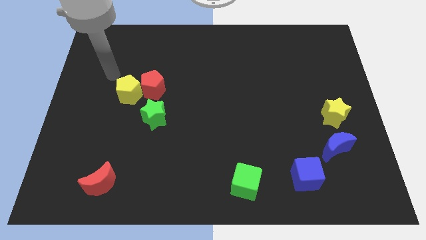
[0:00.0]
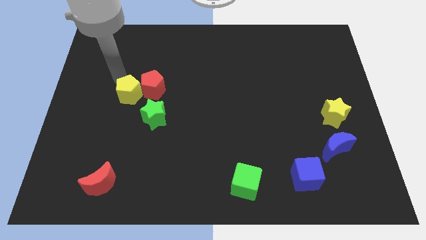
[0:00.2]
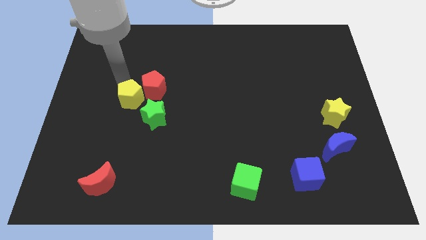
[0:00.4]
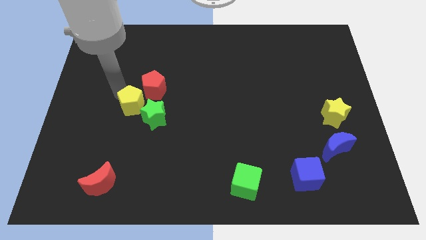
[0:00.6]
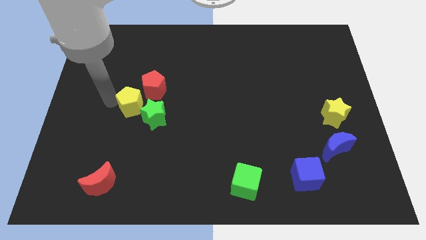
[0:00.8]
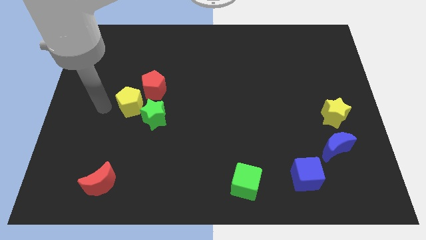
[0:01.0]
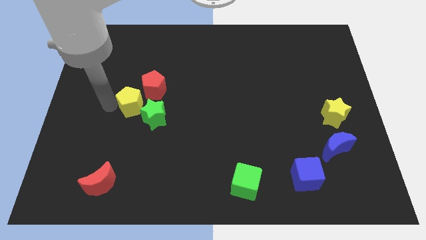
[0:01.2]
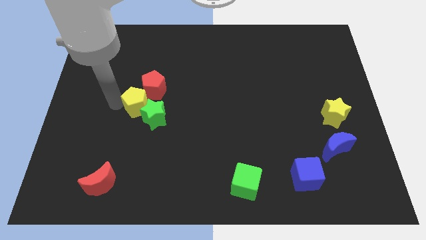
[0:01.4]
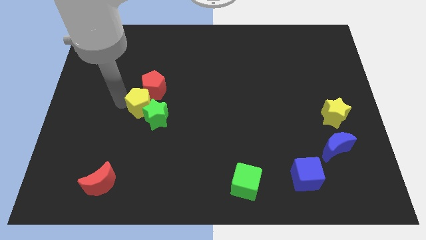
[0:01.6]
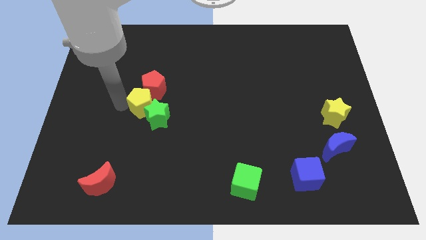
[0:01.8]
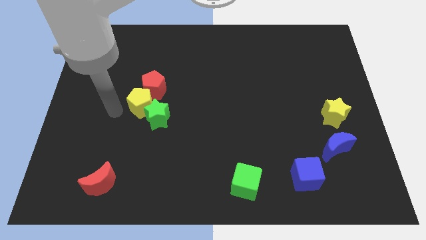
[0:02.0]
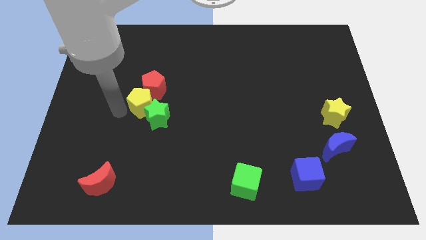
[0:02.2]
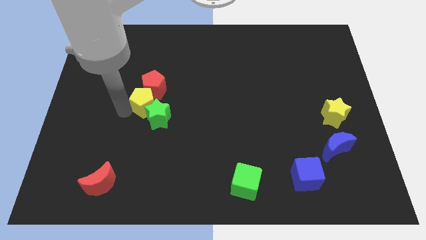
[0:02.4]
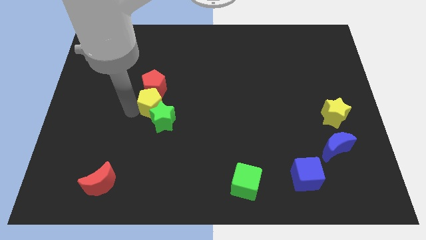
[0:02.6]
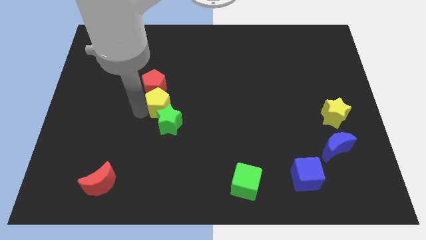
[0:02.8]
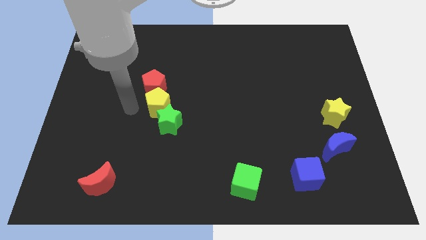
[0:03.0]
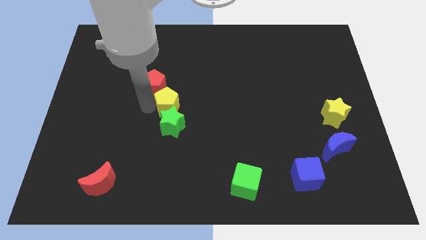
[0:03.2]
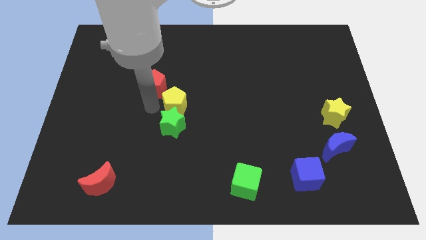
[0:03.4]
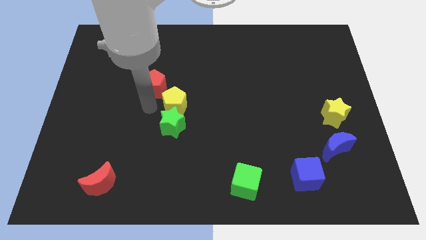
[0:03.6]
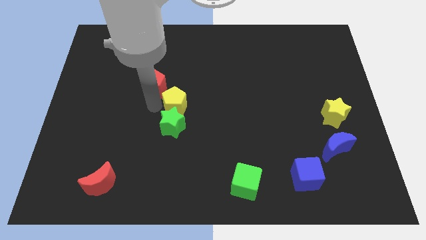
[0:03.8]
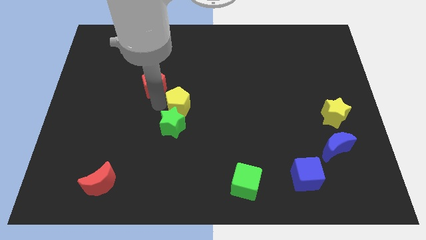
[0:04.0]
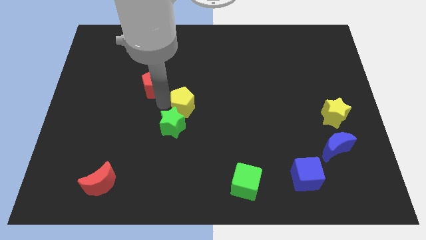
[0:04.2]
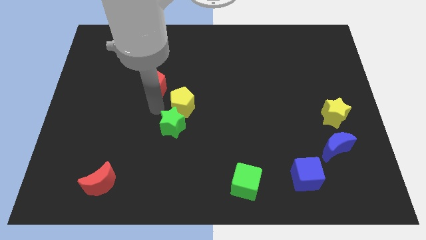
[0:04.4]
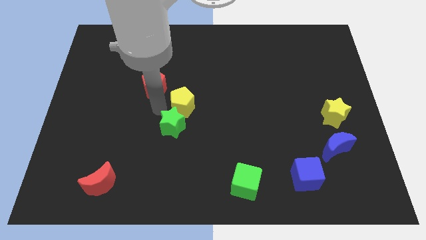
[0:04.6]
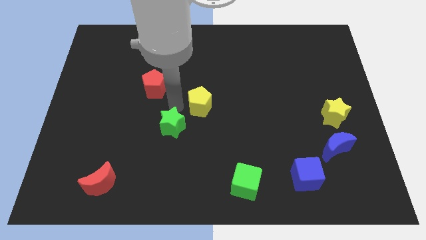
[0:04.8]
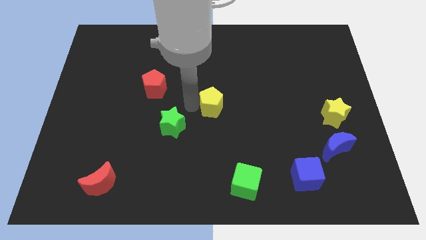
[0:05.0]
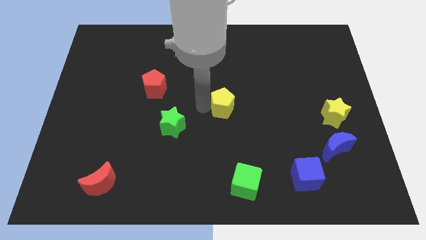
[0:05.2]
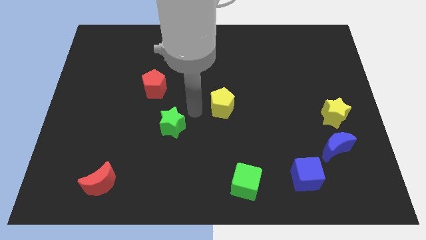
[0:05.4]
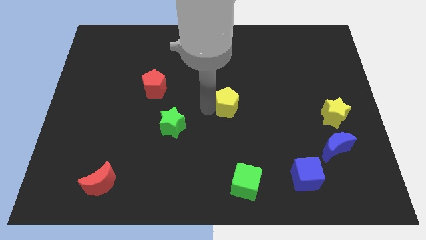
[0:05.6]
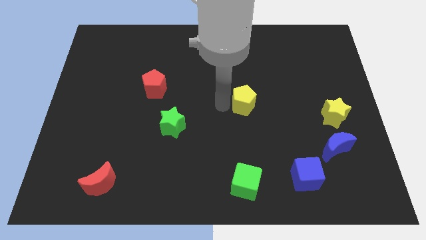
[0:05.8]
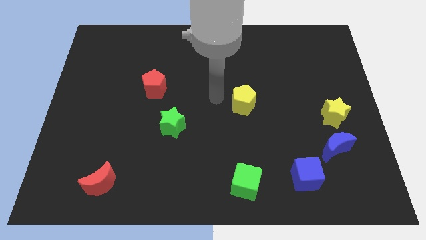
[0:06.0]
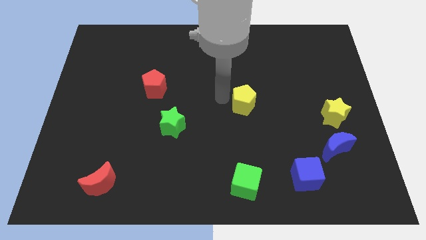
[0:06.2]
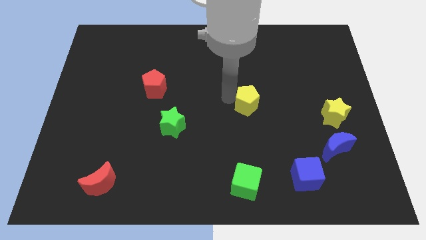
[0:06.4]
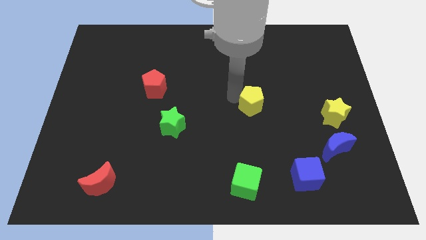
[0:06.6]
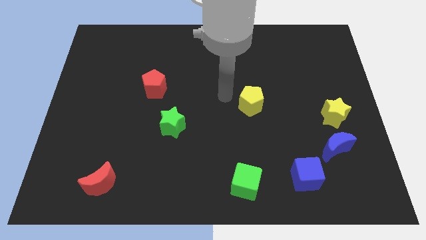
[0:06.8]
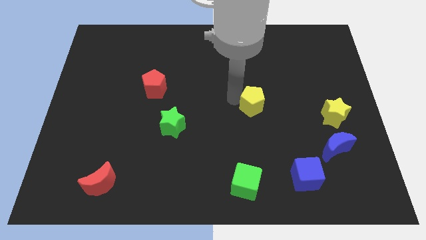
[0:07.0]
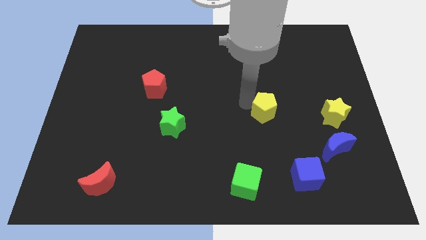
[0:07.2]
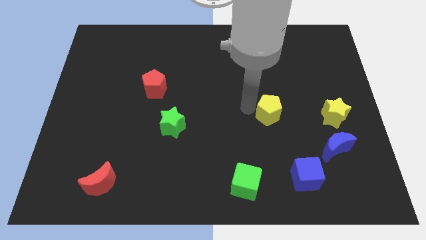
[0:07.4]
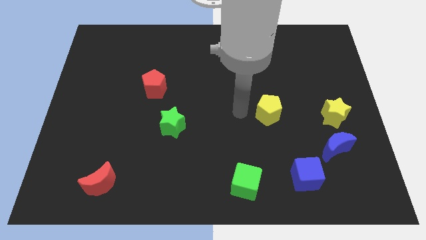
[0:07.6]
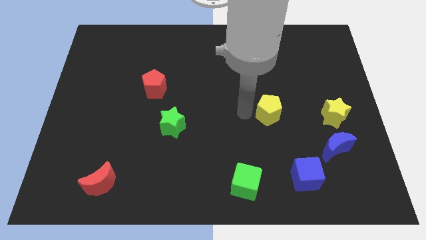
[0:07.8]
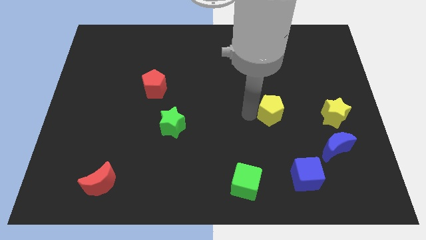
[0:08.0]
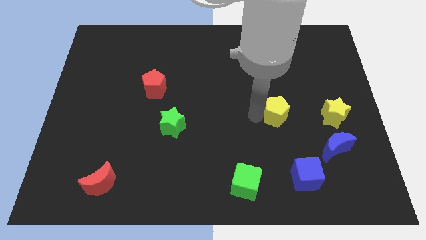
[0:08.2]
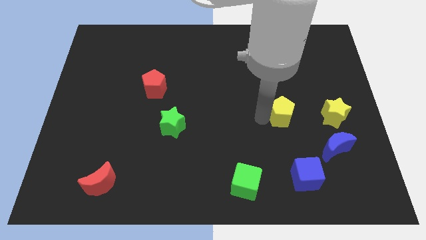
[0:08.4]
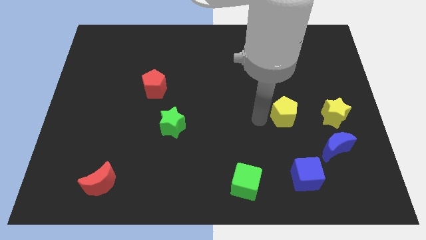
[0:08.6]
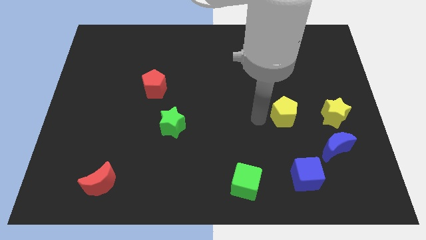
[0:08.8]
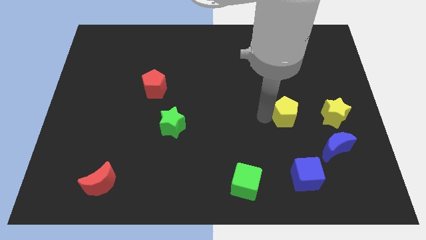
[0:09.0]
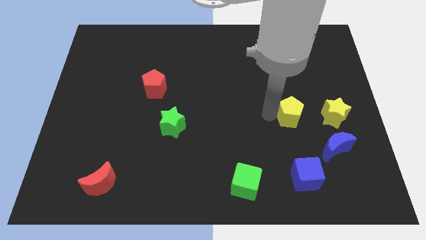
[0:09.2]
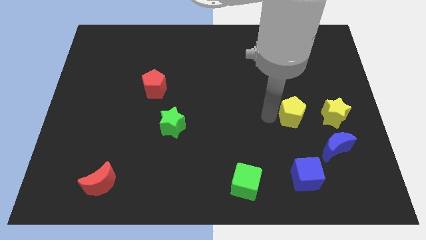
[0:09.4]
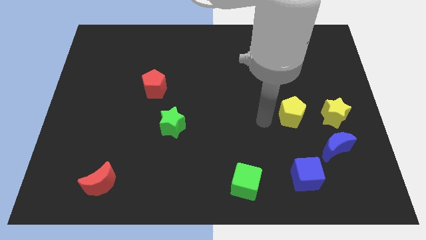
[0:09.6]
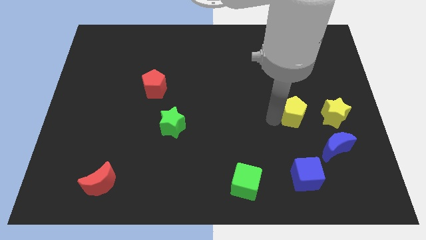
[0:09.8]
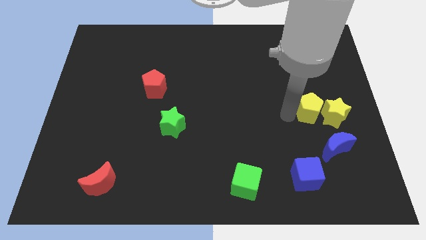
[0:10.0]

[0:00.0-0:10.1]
push the yellow pentagon towards the yellow star

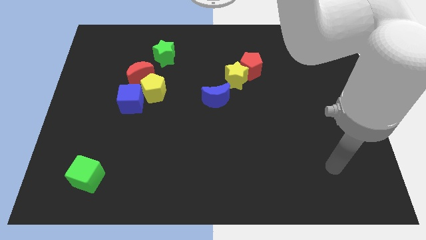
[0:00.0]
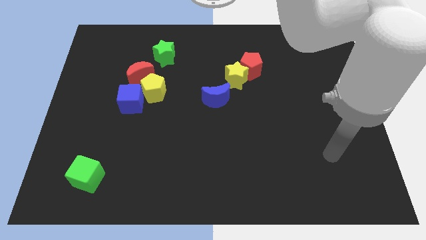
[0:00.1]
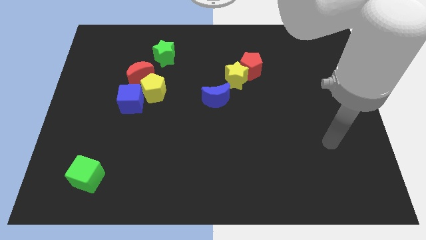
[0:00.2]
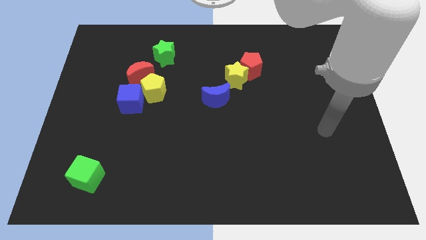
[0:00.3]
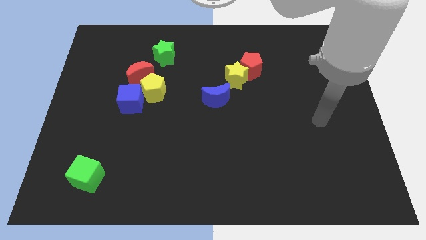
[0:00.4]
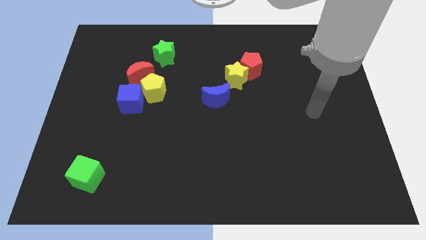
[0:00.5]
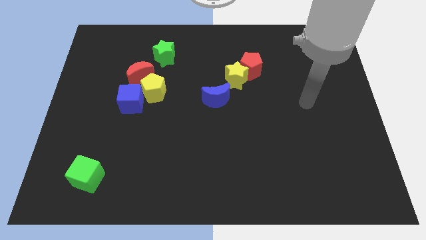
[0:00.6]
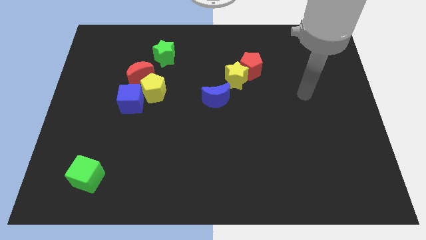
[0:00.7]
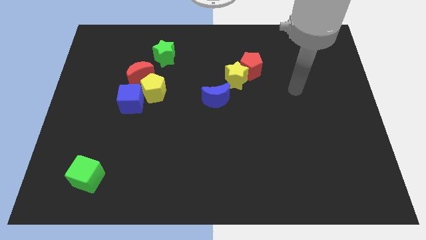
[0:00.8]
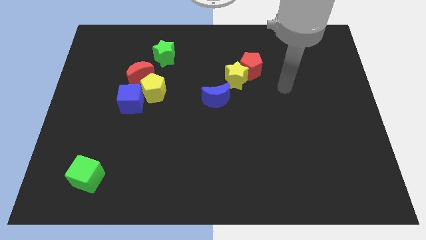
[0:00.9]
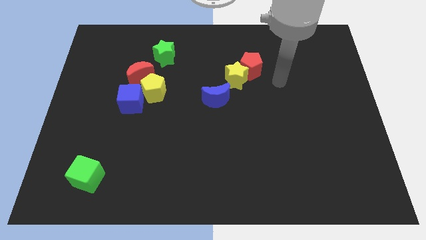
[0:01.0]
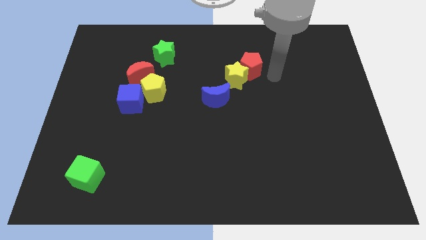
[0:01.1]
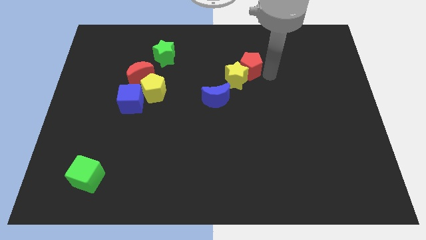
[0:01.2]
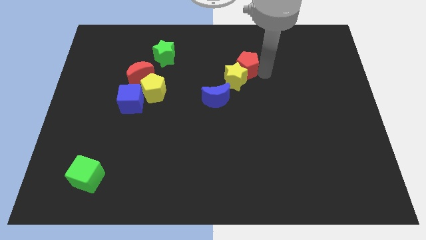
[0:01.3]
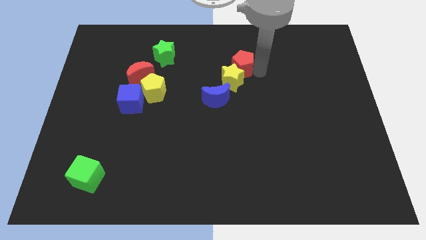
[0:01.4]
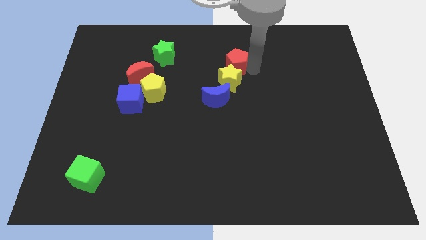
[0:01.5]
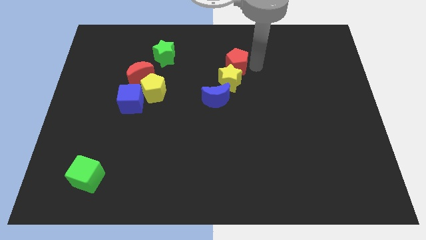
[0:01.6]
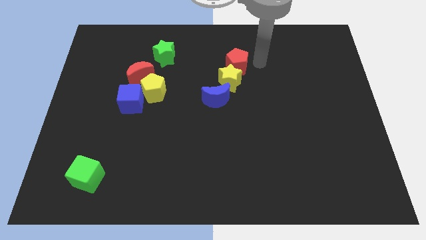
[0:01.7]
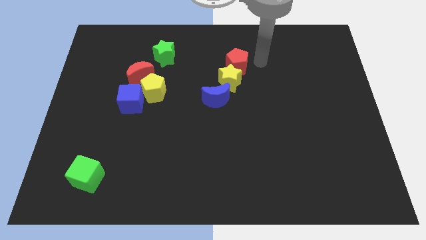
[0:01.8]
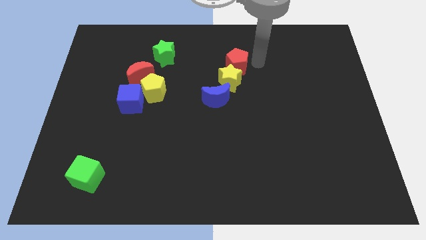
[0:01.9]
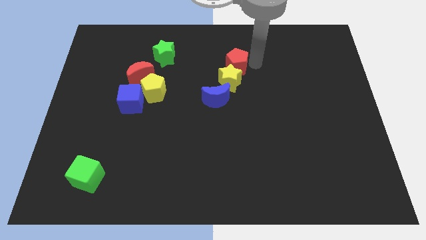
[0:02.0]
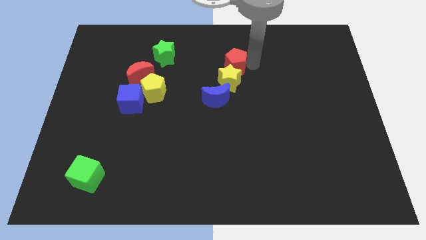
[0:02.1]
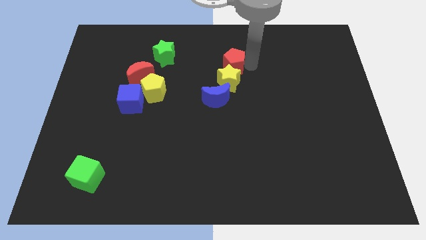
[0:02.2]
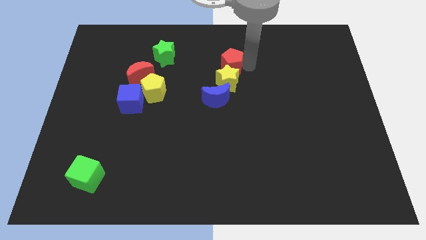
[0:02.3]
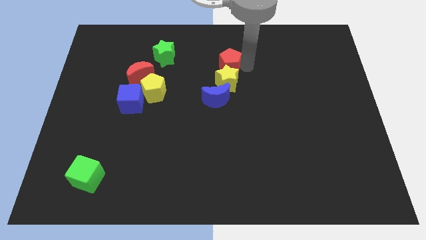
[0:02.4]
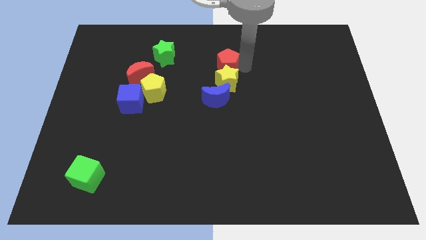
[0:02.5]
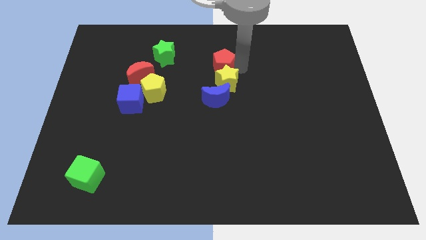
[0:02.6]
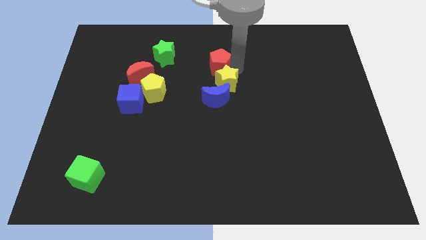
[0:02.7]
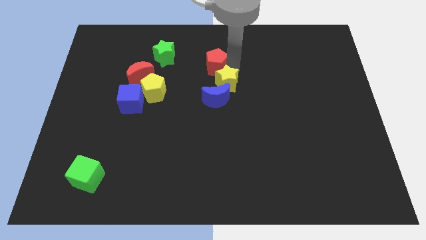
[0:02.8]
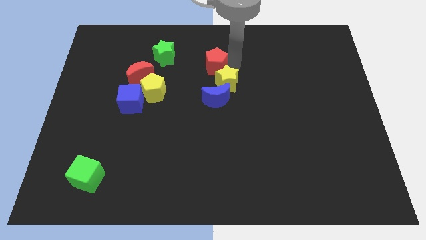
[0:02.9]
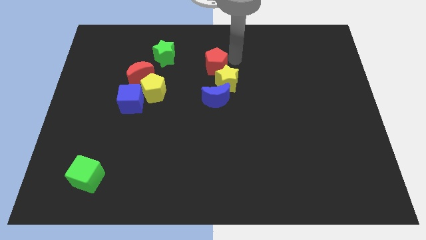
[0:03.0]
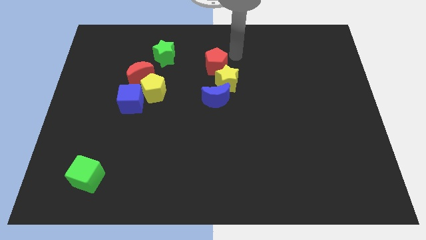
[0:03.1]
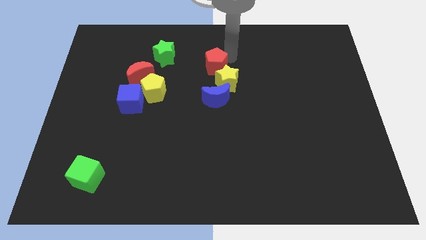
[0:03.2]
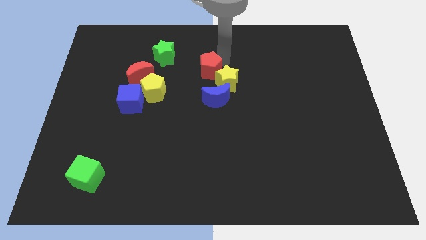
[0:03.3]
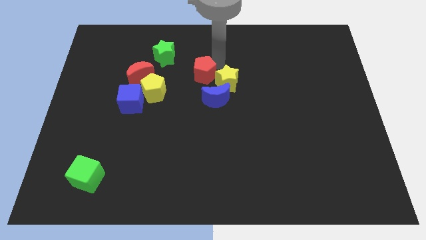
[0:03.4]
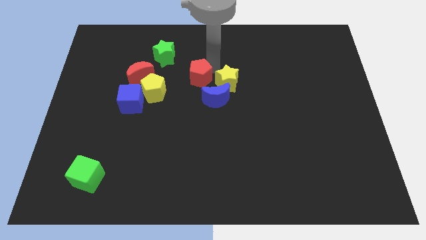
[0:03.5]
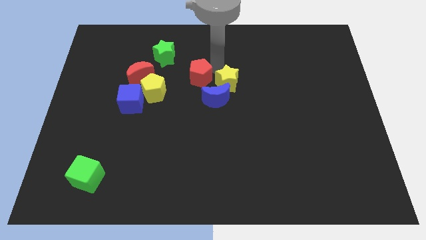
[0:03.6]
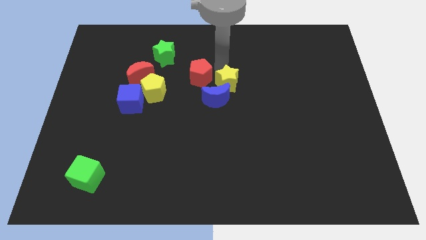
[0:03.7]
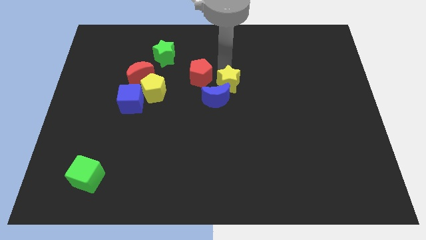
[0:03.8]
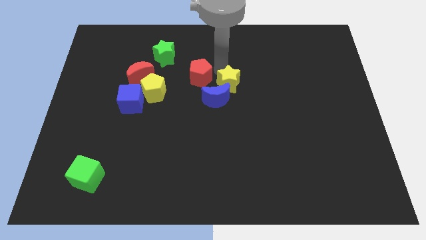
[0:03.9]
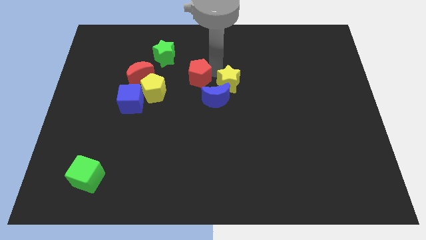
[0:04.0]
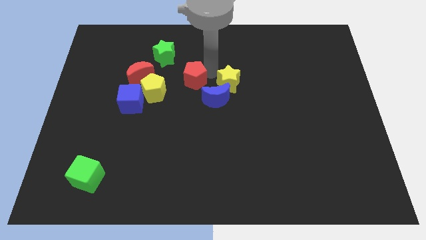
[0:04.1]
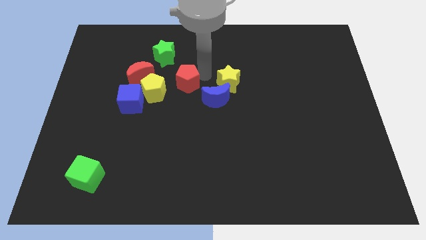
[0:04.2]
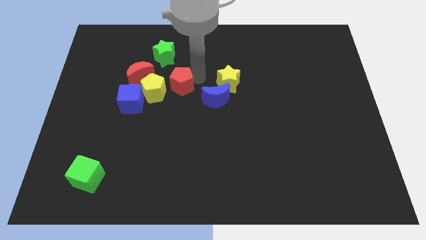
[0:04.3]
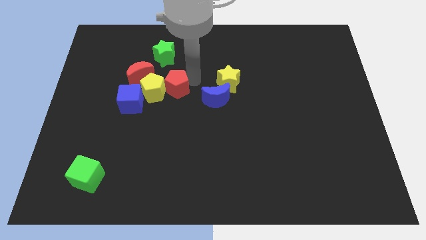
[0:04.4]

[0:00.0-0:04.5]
push the red pentagon next to the yellow pentagon
